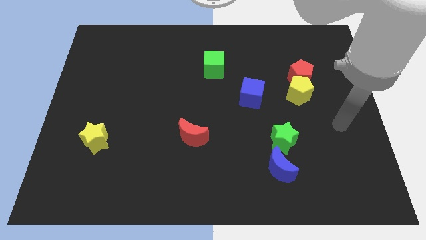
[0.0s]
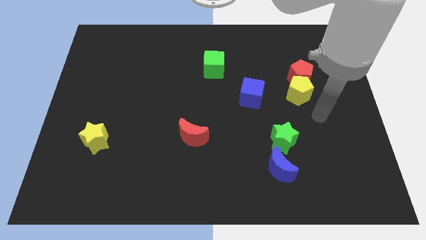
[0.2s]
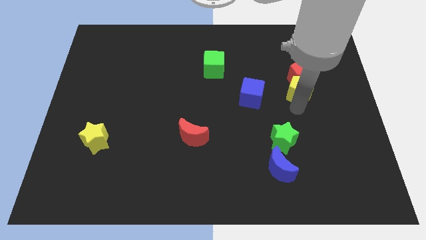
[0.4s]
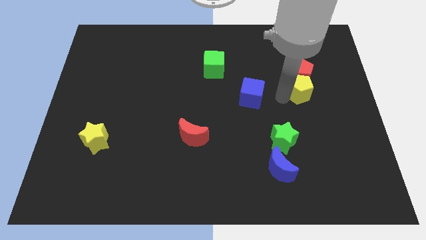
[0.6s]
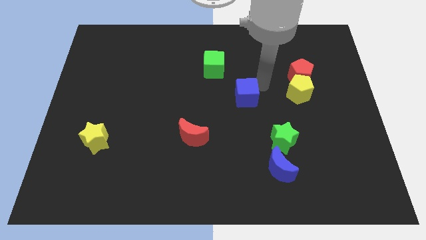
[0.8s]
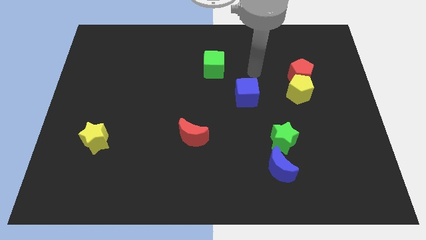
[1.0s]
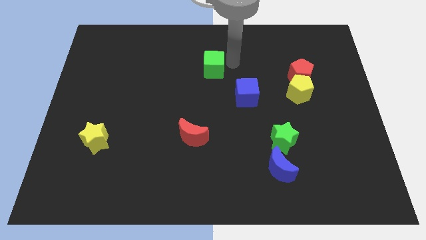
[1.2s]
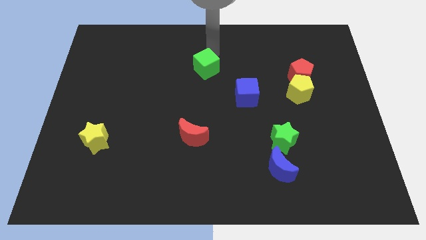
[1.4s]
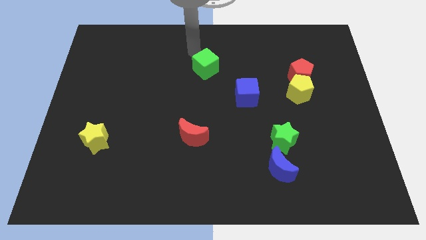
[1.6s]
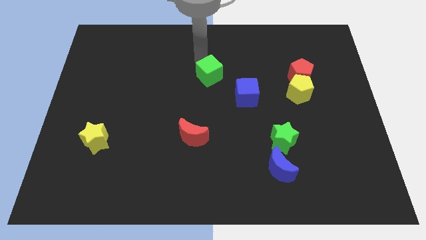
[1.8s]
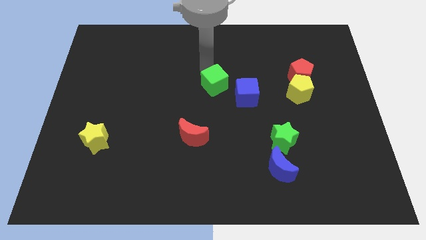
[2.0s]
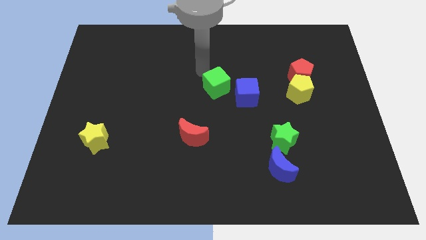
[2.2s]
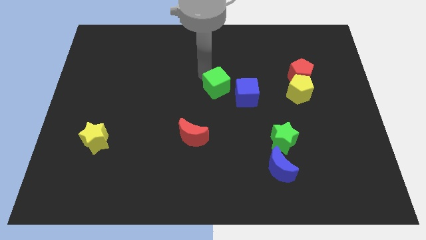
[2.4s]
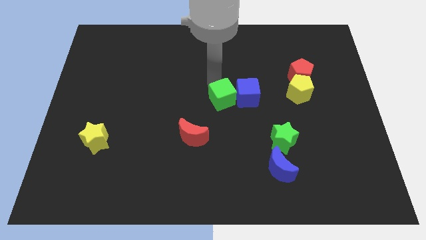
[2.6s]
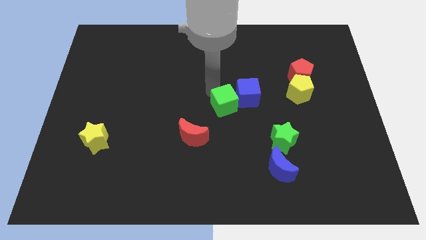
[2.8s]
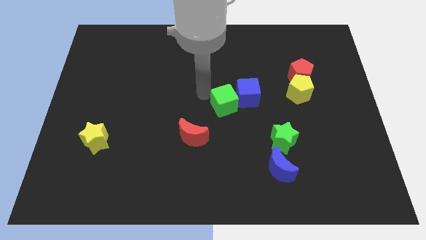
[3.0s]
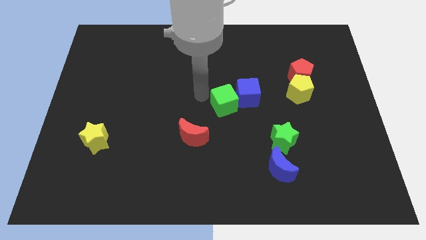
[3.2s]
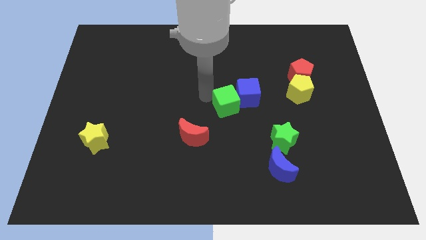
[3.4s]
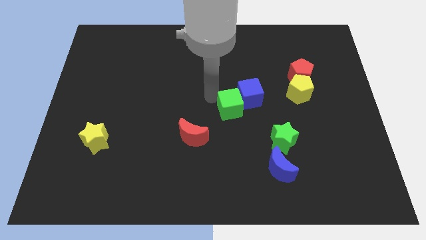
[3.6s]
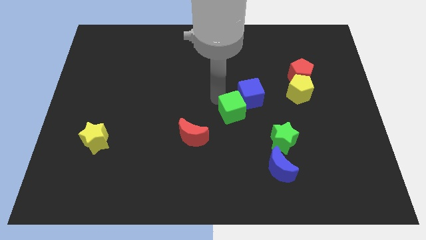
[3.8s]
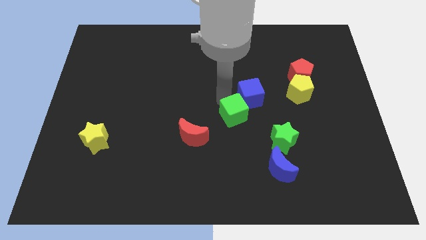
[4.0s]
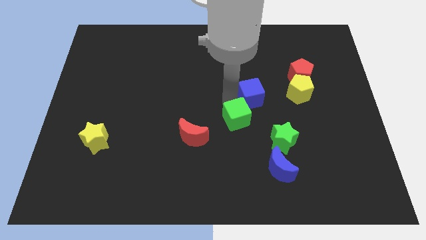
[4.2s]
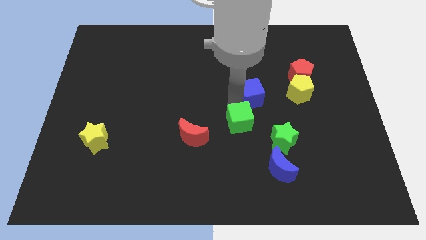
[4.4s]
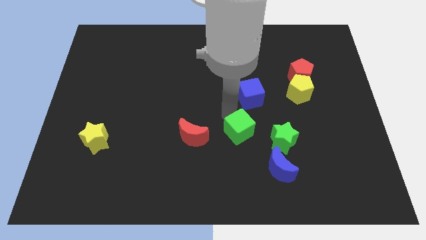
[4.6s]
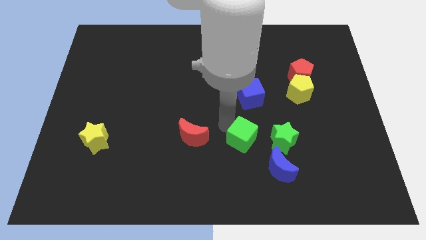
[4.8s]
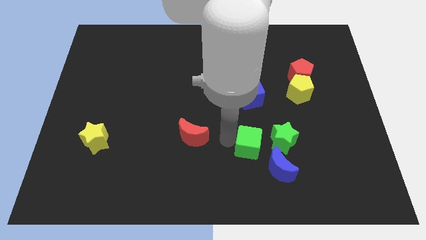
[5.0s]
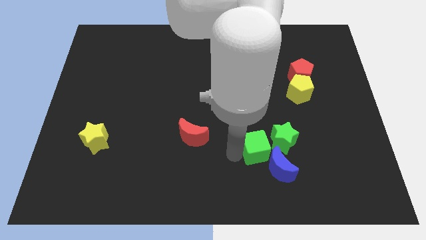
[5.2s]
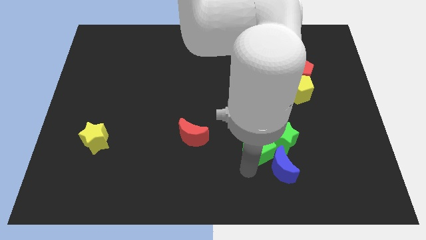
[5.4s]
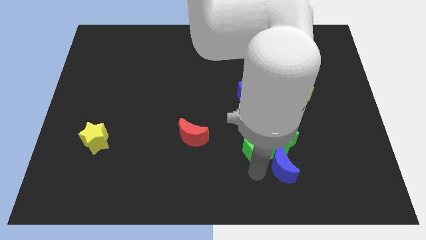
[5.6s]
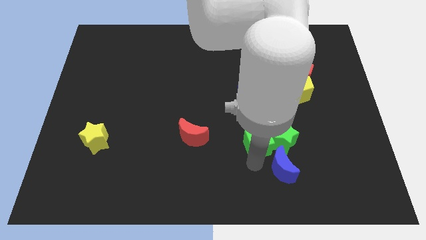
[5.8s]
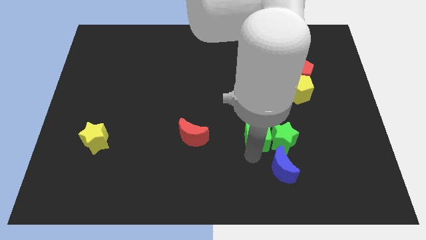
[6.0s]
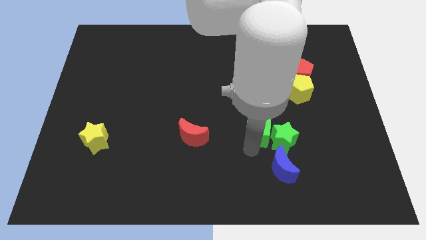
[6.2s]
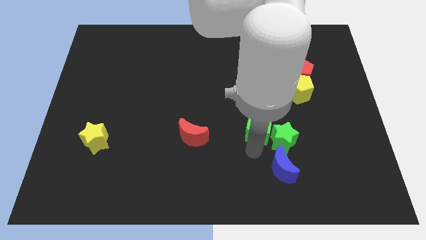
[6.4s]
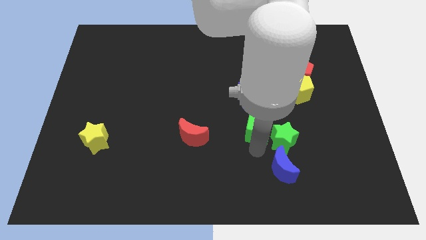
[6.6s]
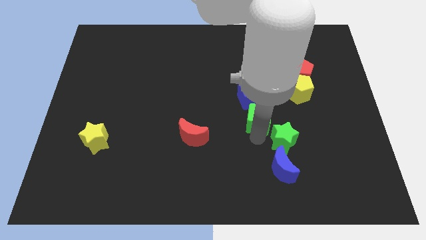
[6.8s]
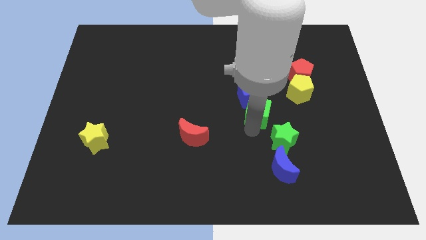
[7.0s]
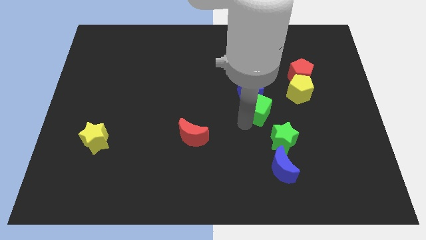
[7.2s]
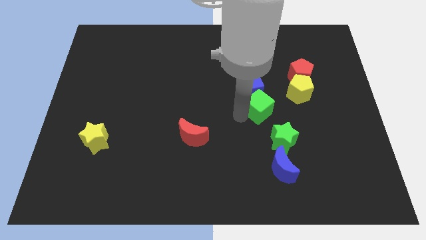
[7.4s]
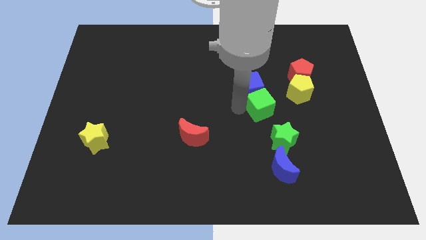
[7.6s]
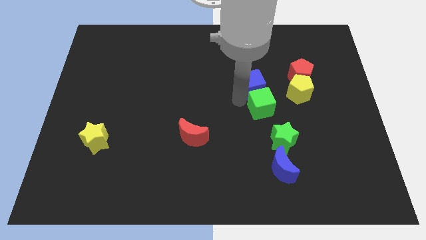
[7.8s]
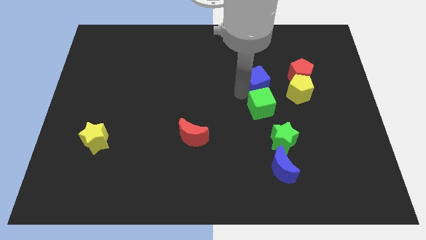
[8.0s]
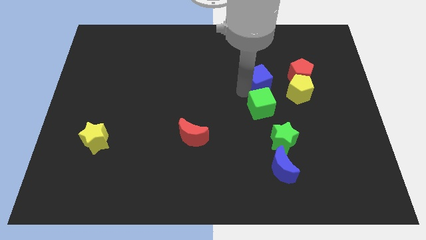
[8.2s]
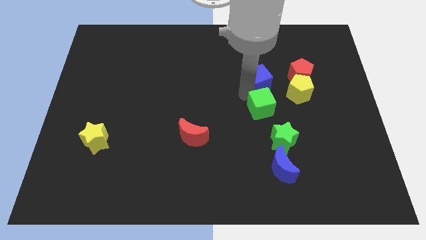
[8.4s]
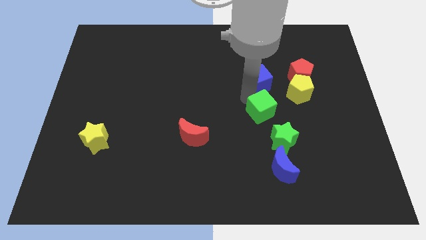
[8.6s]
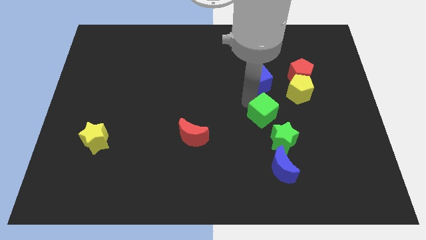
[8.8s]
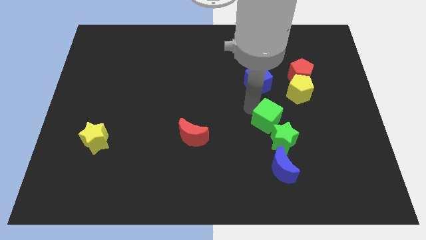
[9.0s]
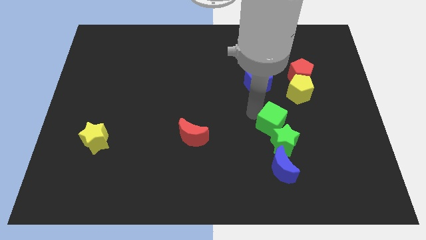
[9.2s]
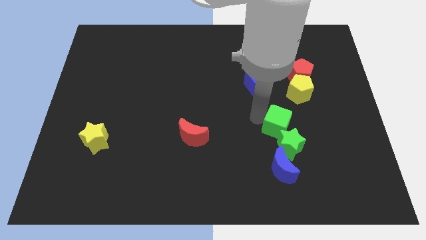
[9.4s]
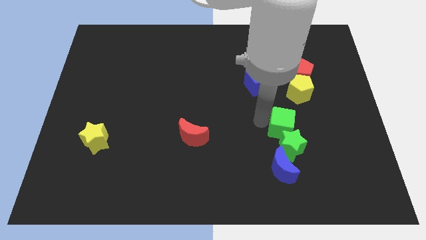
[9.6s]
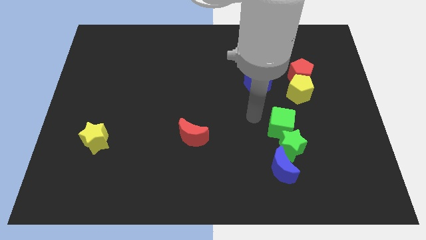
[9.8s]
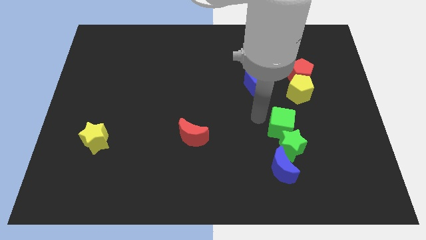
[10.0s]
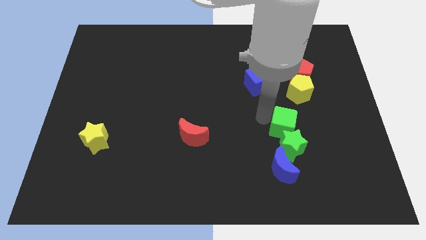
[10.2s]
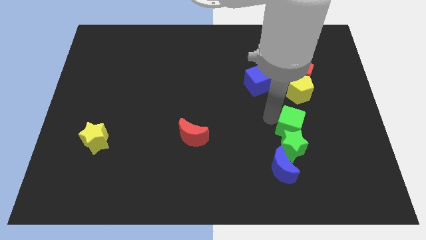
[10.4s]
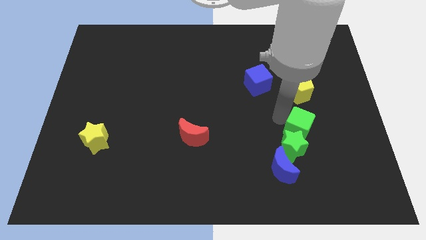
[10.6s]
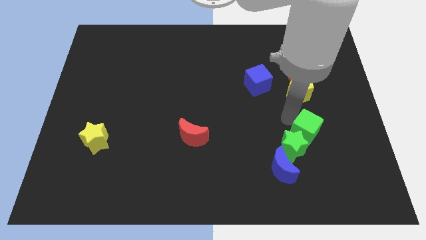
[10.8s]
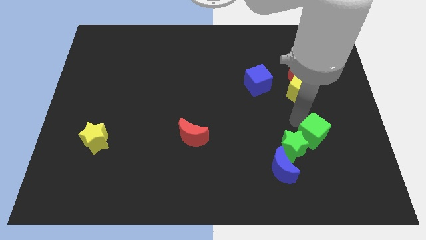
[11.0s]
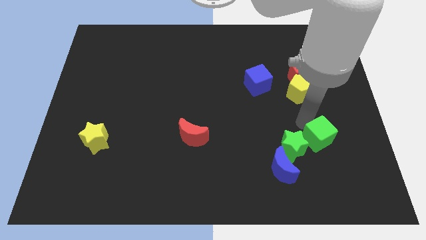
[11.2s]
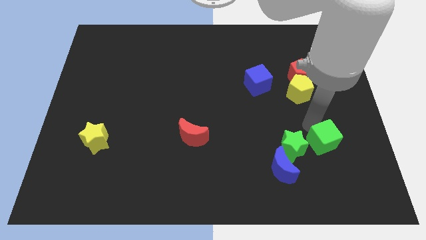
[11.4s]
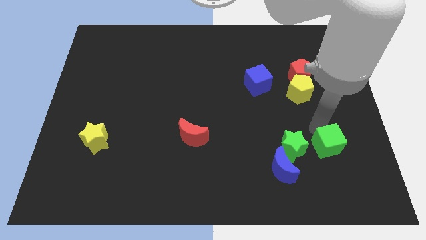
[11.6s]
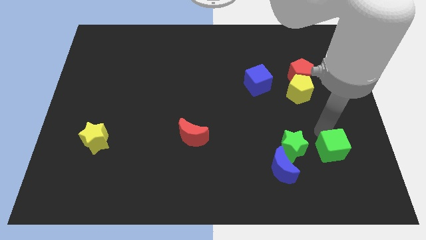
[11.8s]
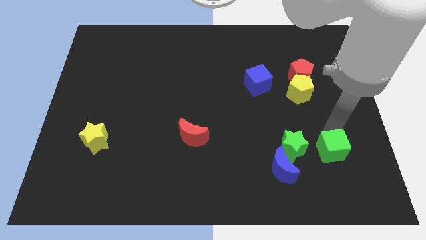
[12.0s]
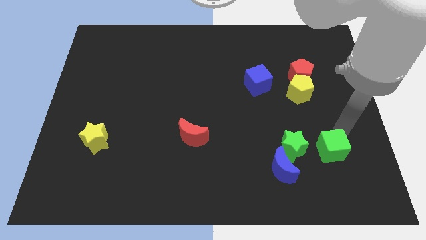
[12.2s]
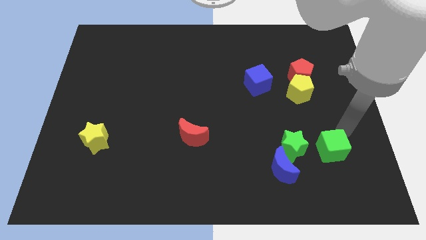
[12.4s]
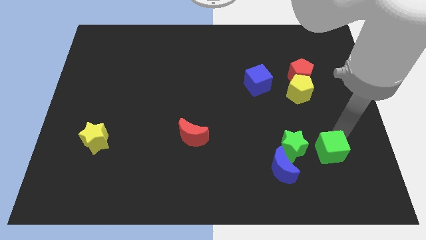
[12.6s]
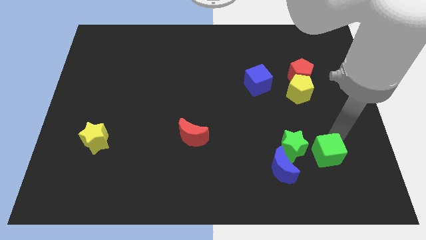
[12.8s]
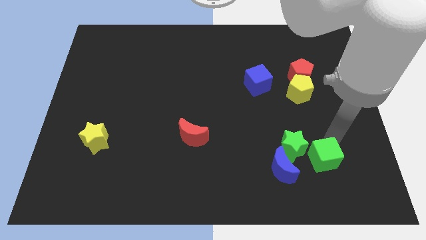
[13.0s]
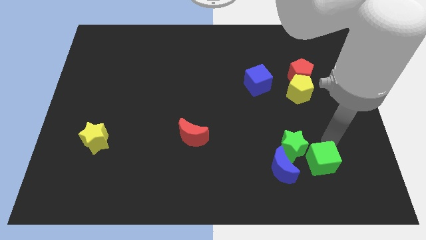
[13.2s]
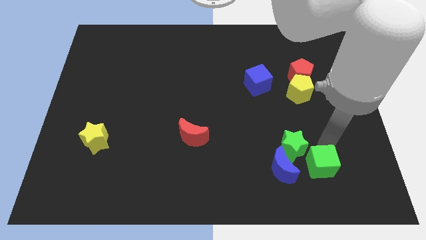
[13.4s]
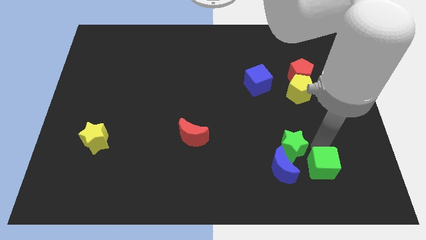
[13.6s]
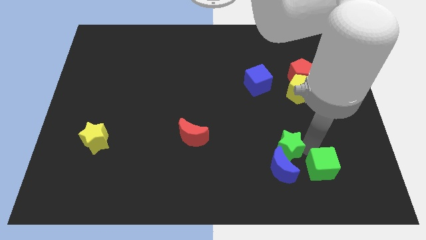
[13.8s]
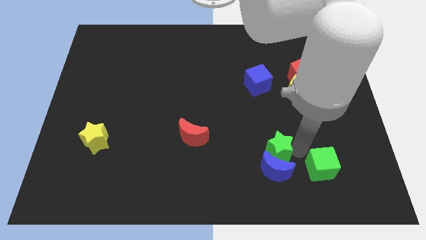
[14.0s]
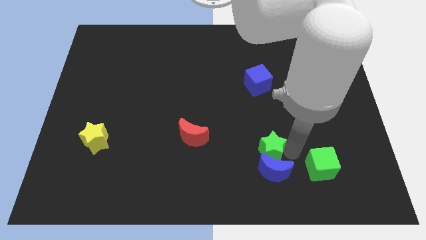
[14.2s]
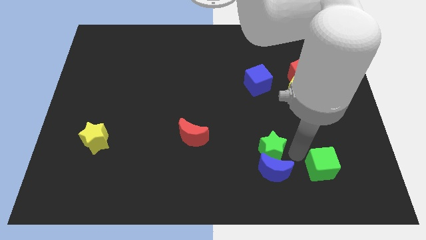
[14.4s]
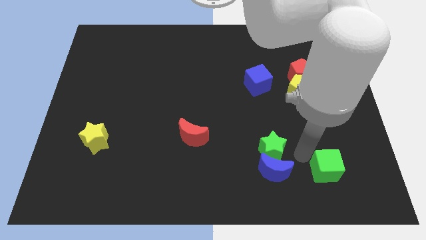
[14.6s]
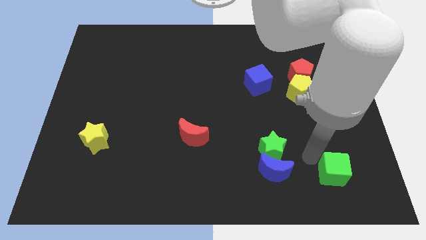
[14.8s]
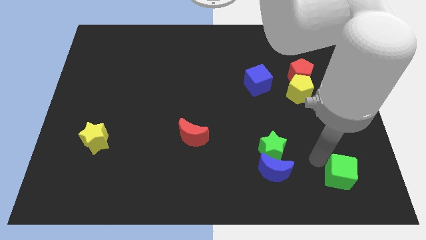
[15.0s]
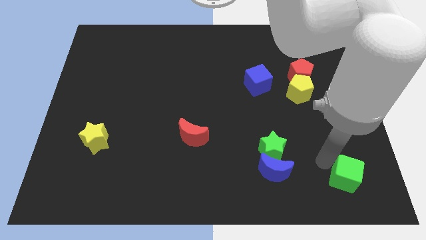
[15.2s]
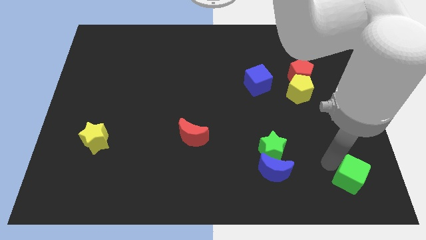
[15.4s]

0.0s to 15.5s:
push the green cube to the bottom right of the board
